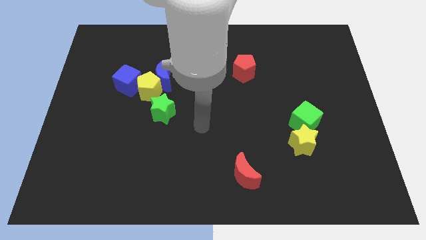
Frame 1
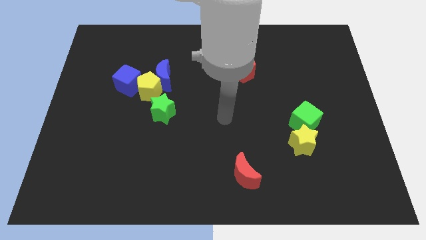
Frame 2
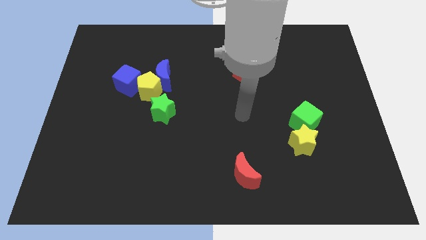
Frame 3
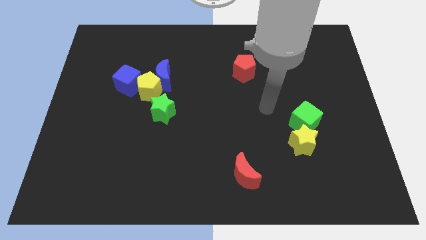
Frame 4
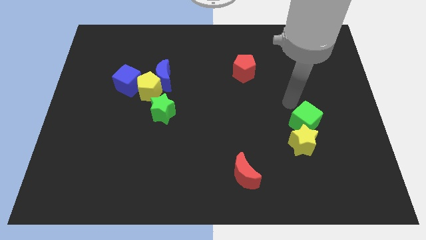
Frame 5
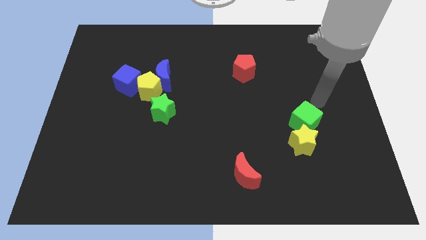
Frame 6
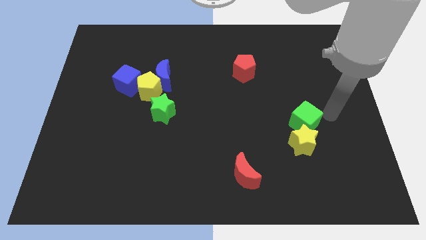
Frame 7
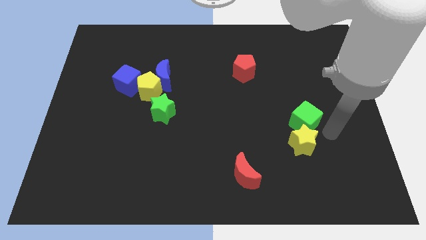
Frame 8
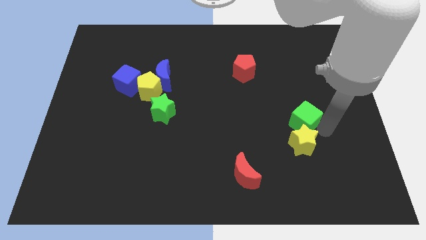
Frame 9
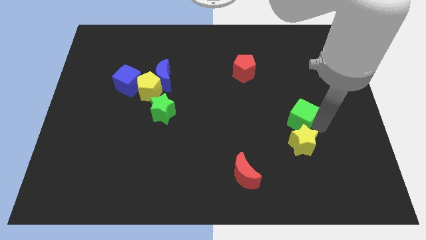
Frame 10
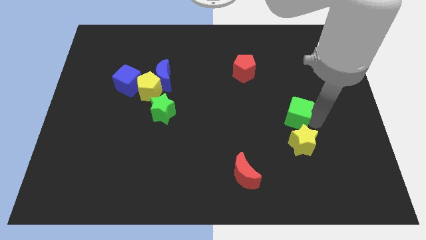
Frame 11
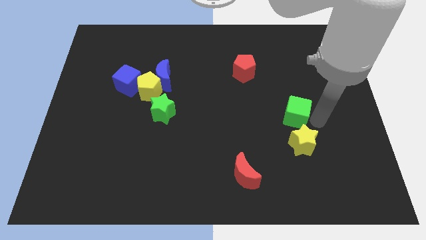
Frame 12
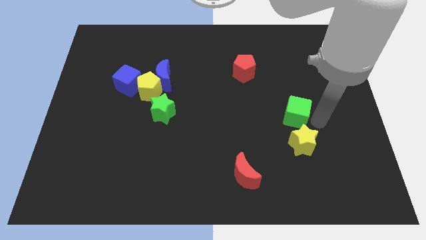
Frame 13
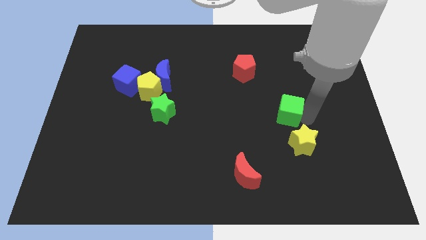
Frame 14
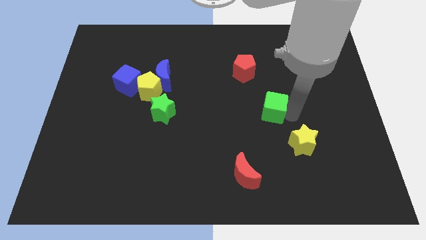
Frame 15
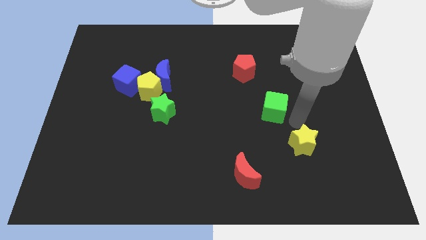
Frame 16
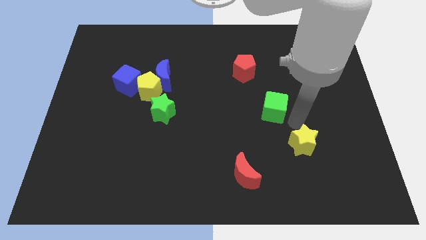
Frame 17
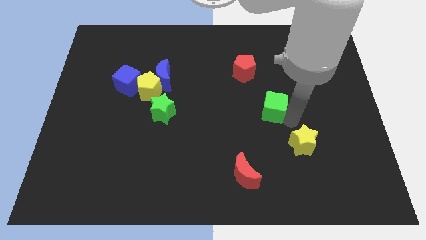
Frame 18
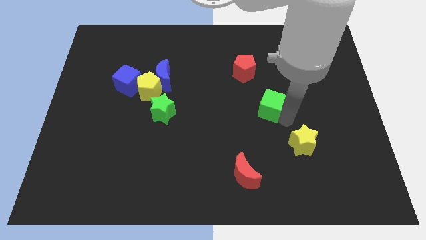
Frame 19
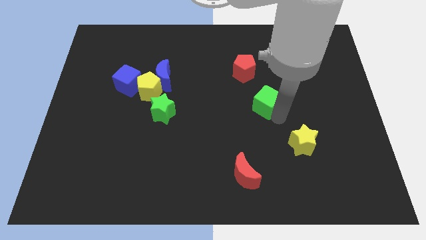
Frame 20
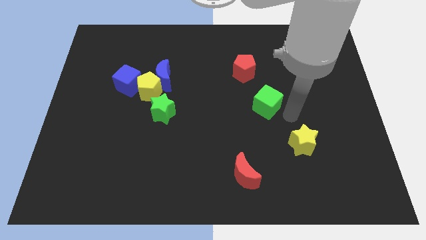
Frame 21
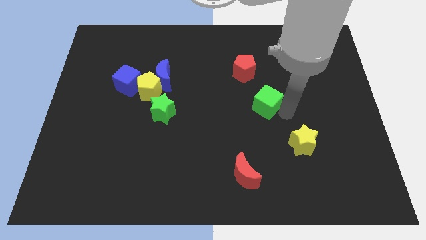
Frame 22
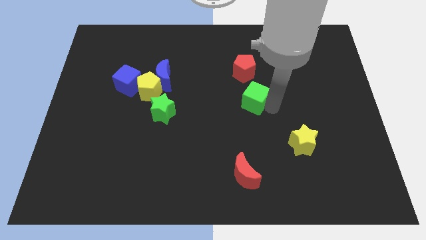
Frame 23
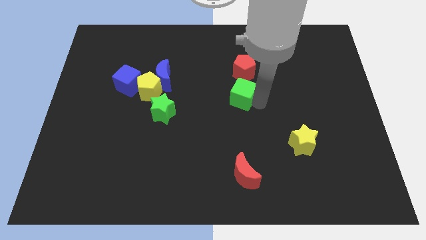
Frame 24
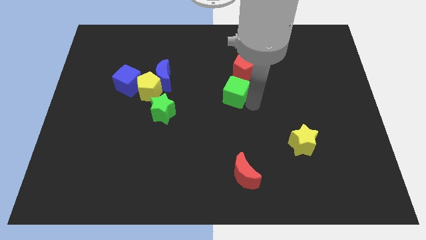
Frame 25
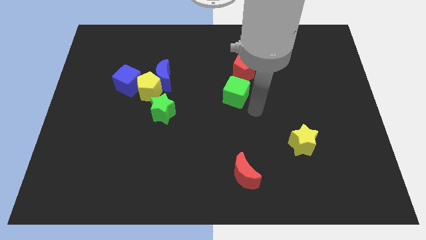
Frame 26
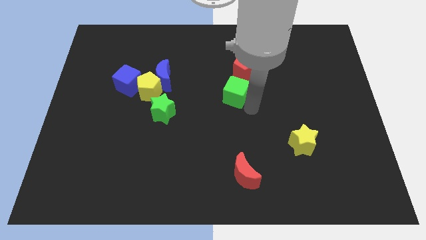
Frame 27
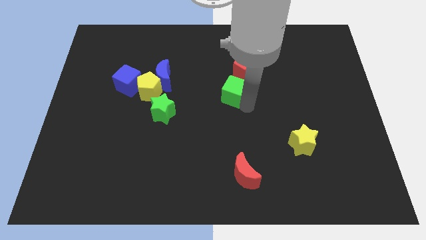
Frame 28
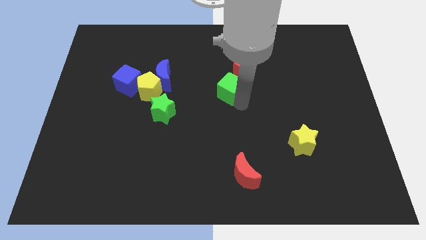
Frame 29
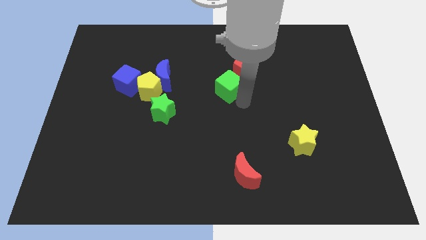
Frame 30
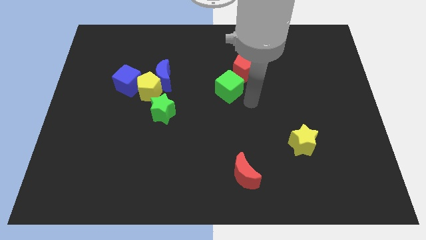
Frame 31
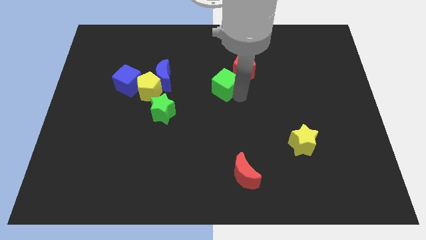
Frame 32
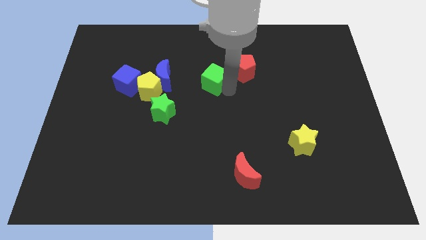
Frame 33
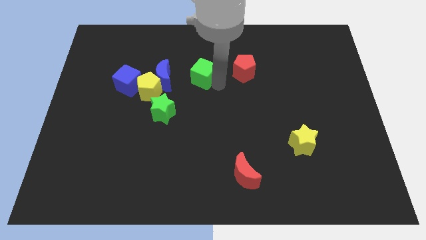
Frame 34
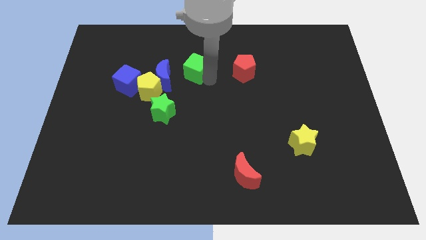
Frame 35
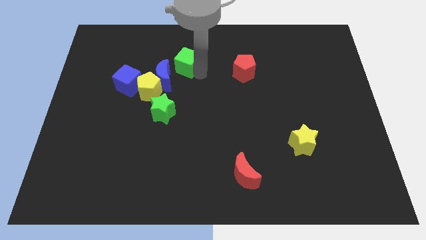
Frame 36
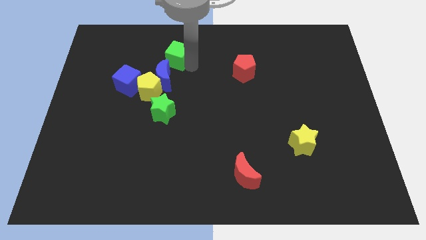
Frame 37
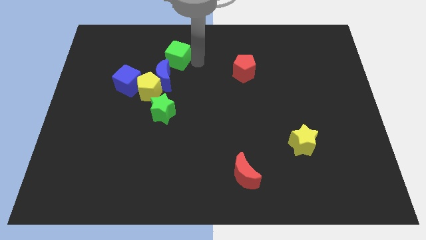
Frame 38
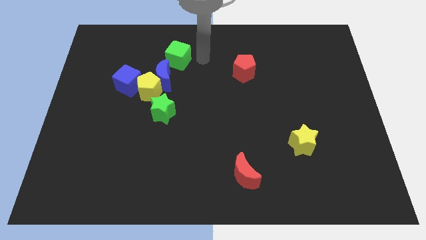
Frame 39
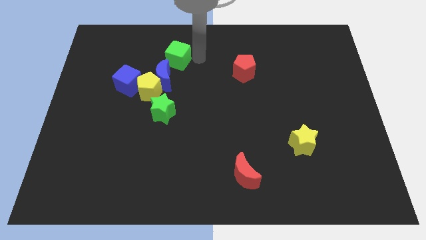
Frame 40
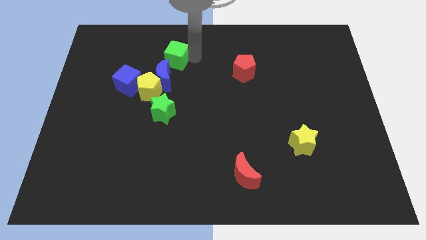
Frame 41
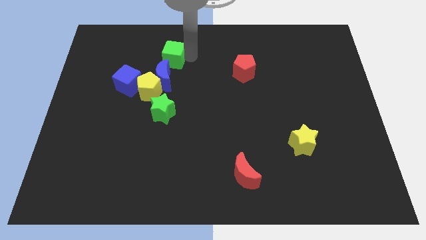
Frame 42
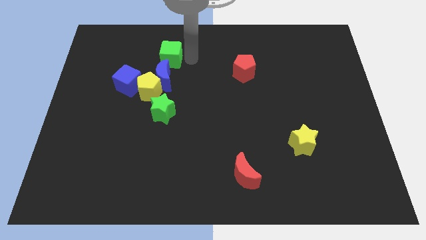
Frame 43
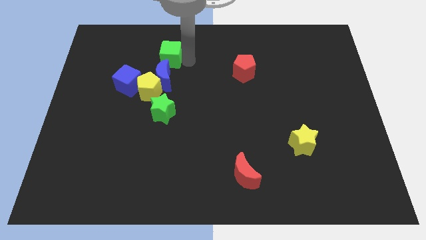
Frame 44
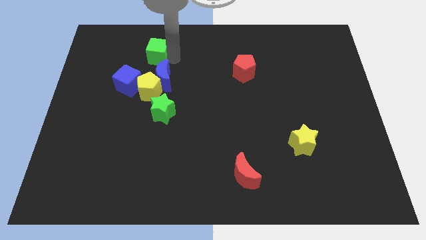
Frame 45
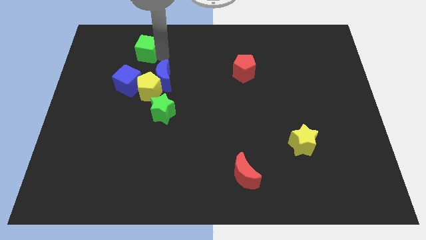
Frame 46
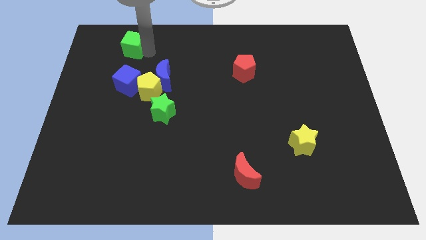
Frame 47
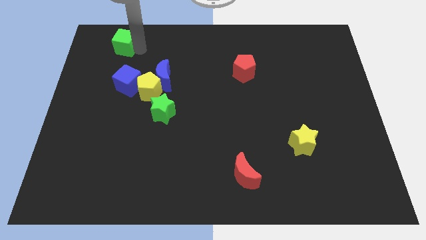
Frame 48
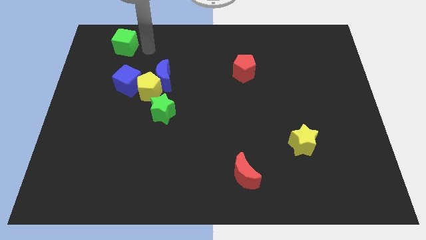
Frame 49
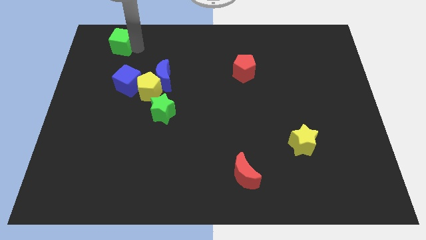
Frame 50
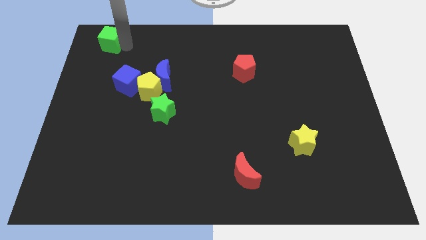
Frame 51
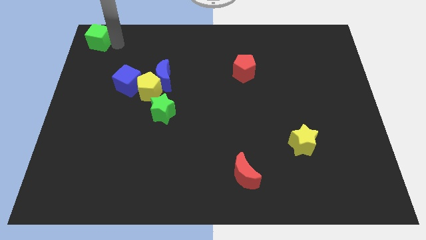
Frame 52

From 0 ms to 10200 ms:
slide the green cube to the top left of the board

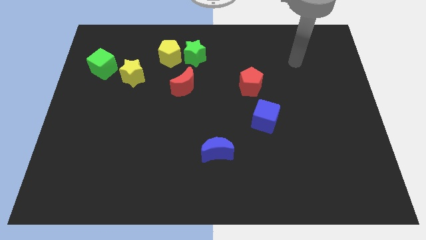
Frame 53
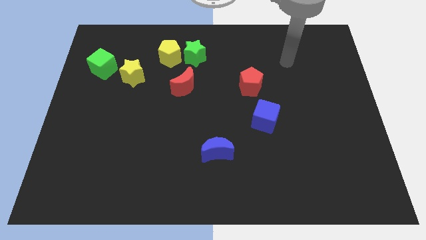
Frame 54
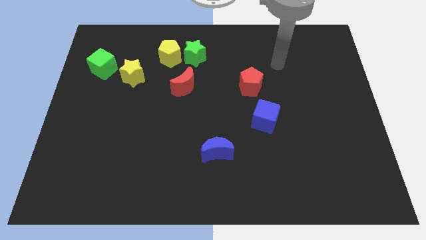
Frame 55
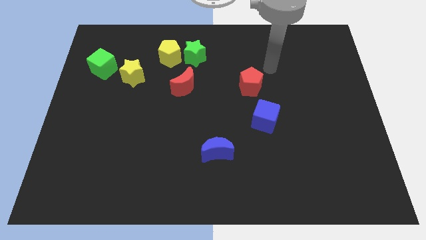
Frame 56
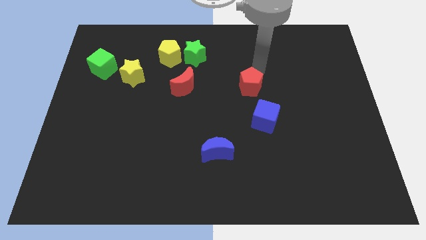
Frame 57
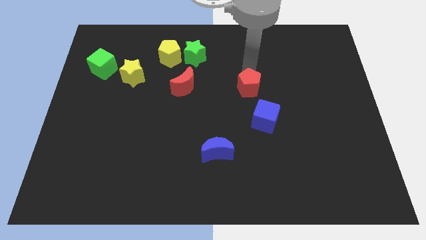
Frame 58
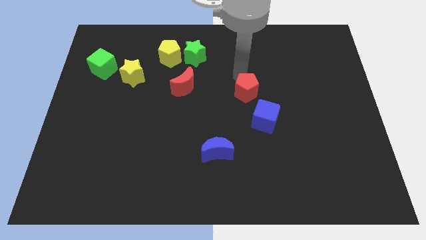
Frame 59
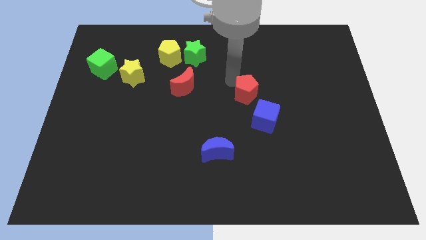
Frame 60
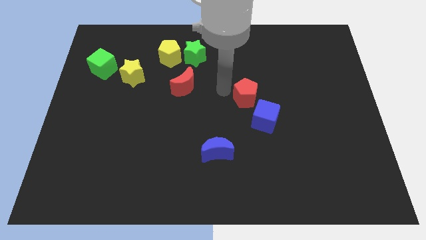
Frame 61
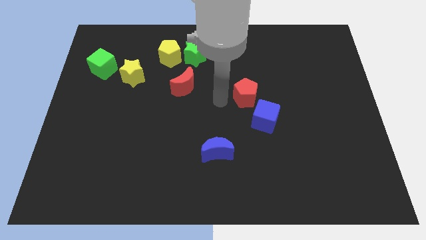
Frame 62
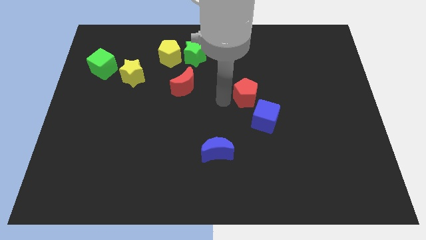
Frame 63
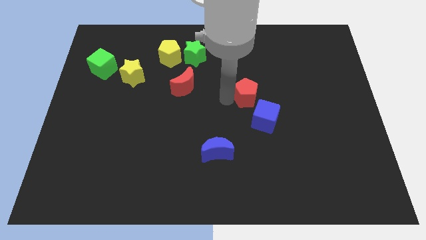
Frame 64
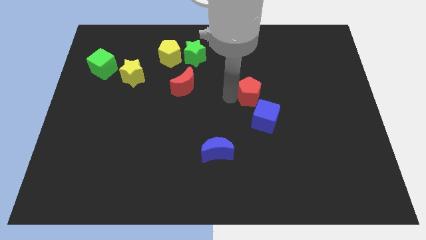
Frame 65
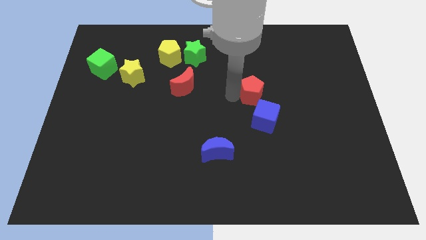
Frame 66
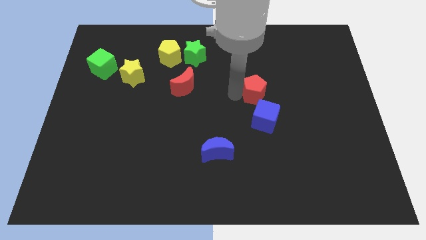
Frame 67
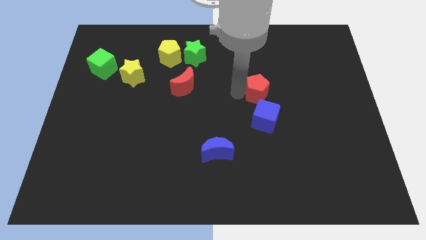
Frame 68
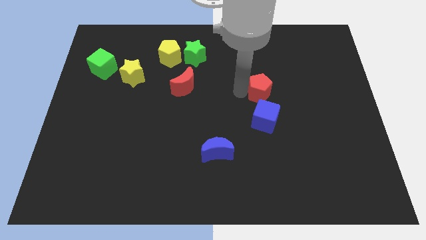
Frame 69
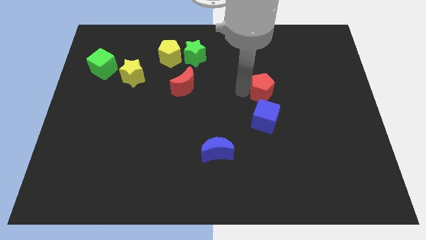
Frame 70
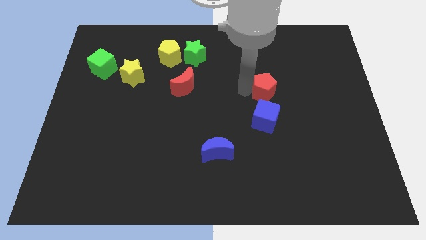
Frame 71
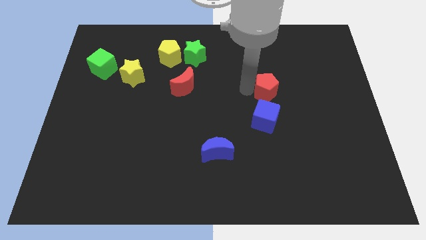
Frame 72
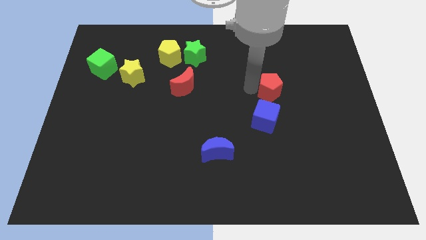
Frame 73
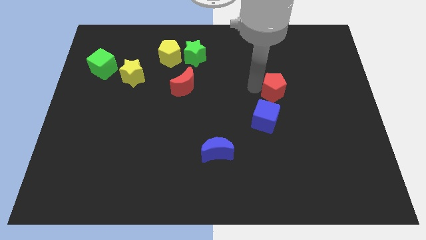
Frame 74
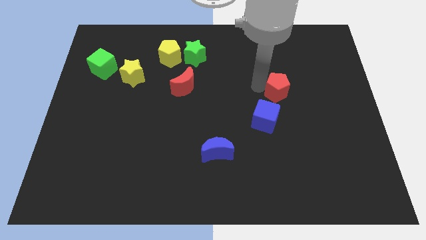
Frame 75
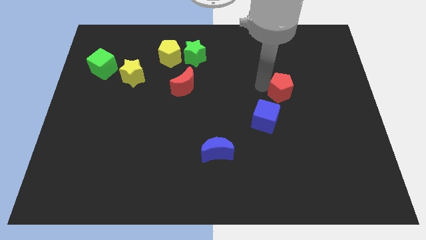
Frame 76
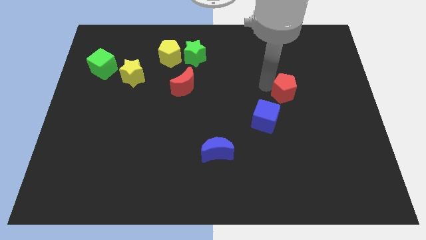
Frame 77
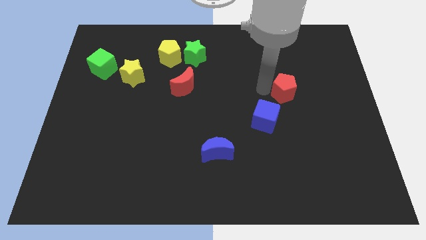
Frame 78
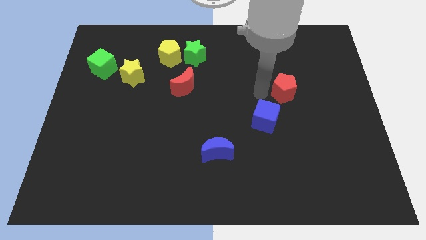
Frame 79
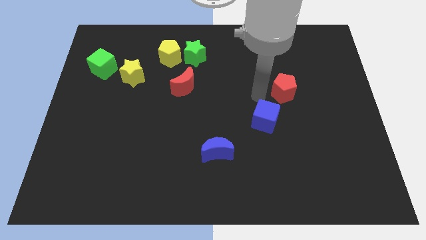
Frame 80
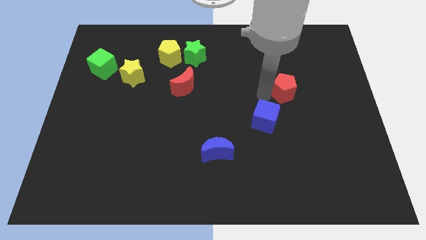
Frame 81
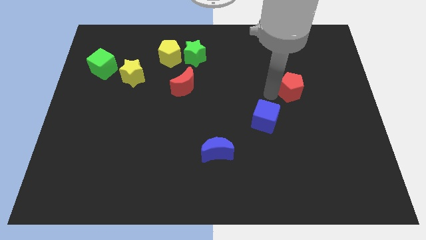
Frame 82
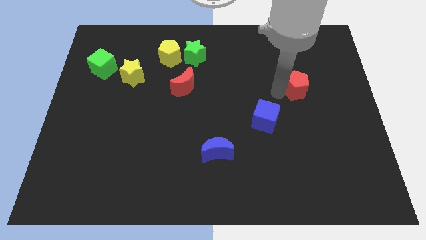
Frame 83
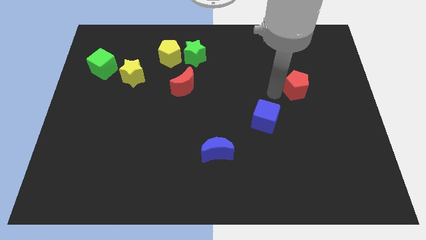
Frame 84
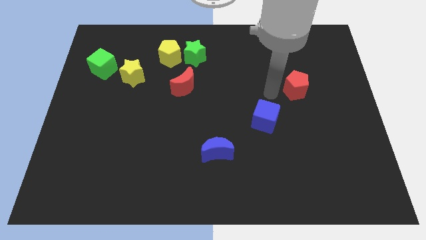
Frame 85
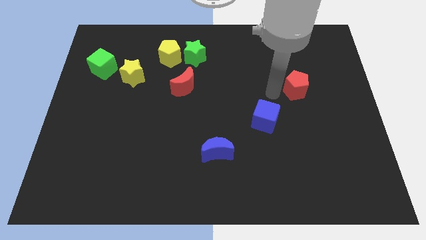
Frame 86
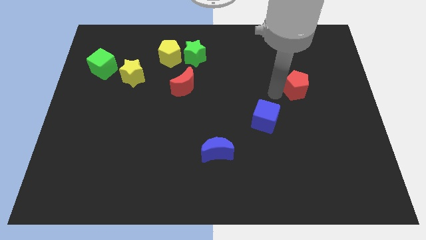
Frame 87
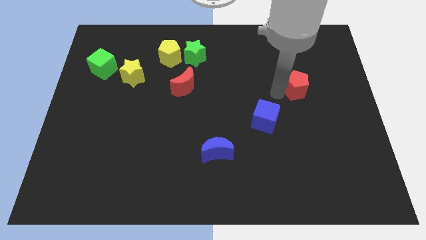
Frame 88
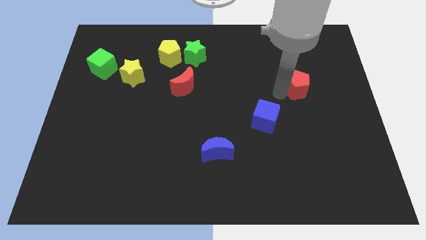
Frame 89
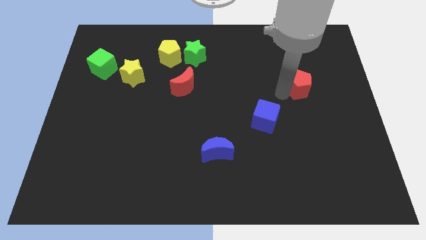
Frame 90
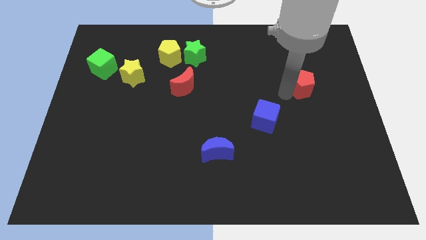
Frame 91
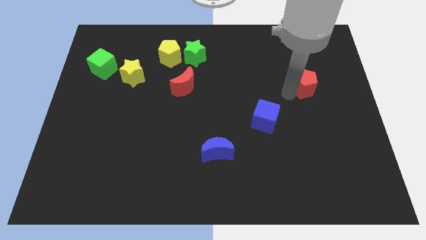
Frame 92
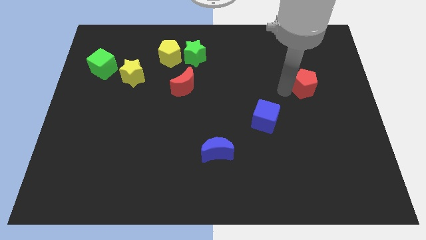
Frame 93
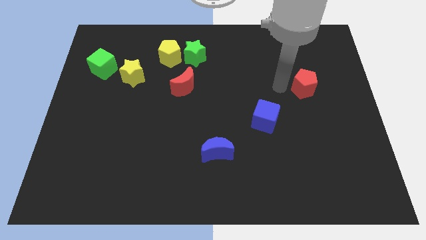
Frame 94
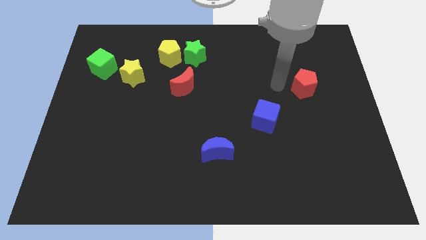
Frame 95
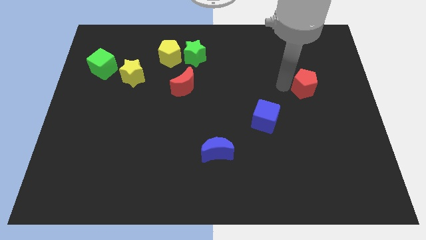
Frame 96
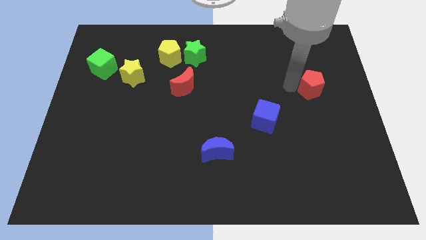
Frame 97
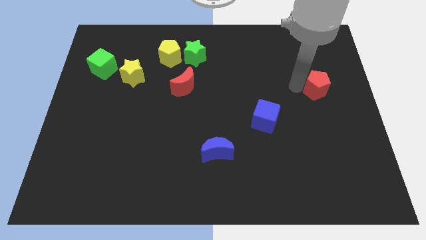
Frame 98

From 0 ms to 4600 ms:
slide the red pentagon to the right side of the board
